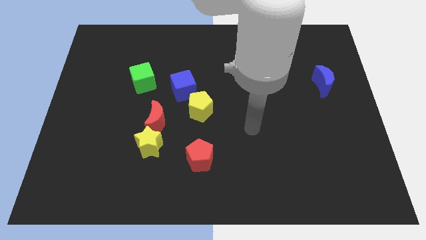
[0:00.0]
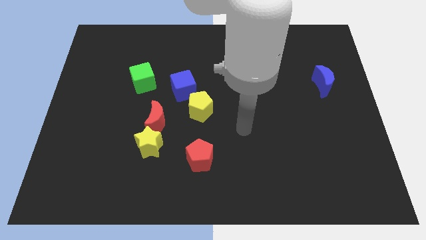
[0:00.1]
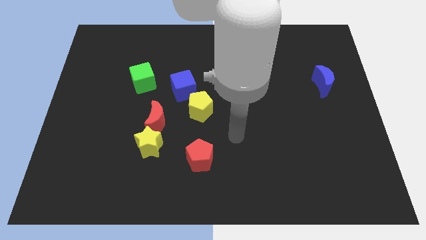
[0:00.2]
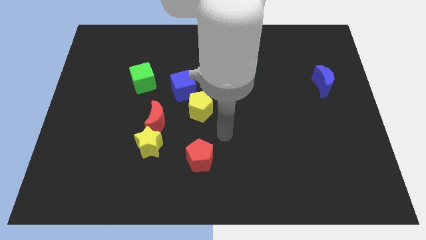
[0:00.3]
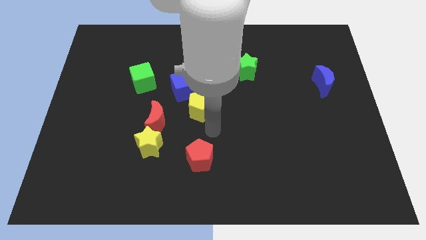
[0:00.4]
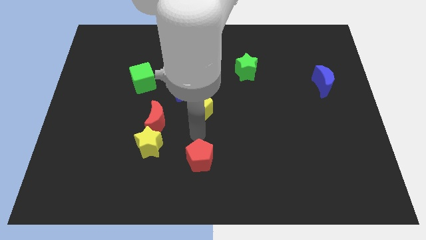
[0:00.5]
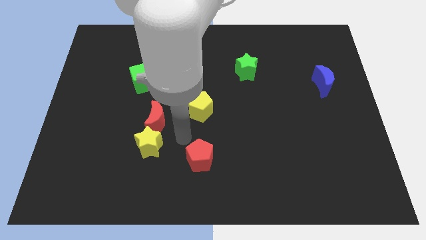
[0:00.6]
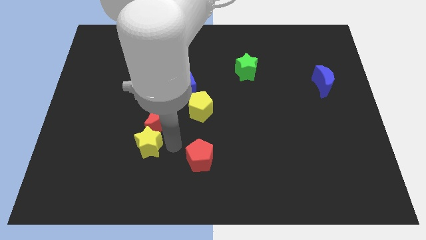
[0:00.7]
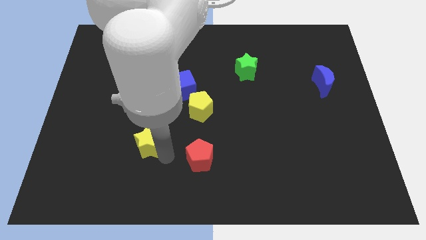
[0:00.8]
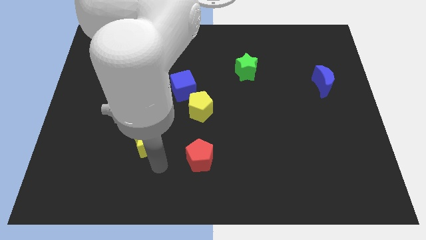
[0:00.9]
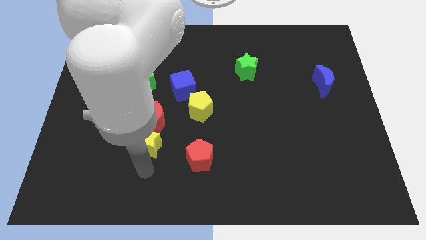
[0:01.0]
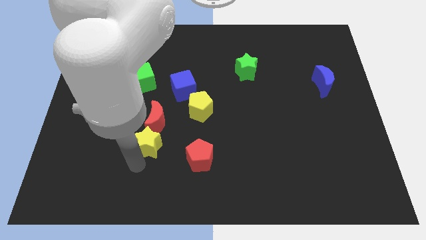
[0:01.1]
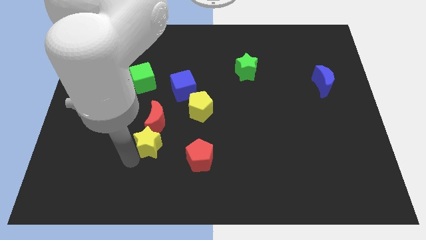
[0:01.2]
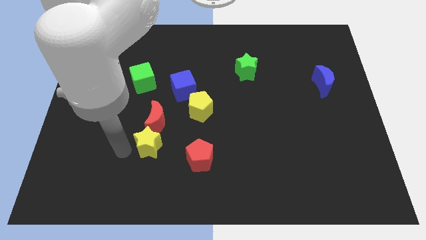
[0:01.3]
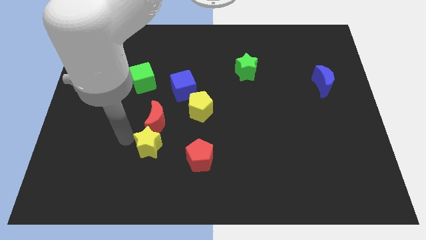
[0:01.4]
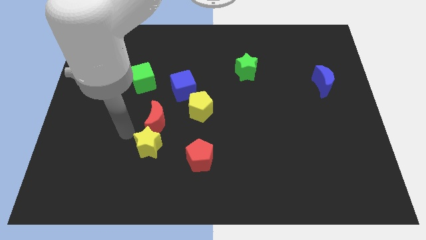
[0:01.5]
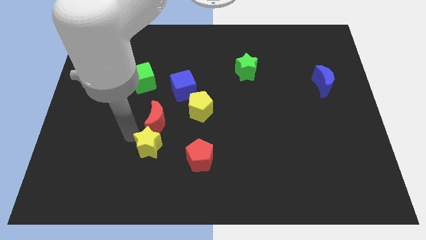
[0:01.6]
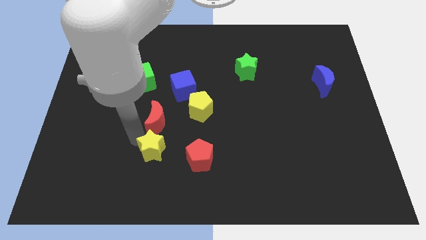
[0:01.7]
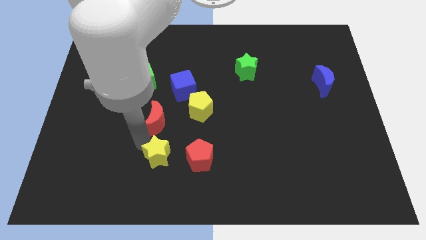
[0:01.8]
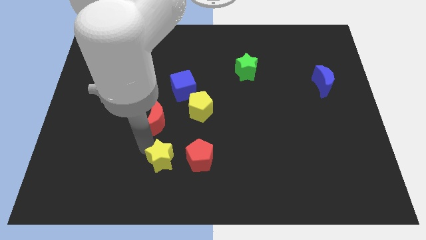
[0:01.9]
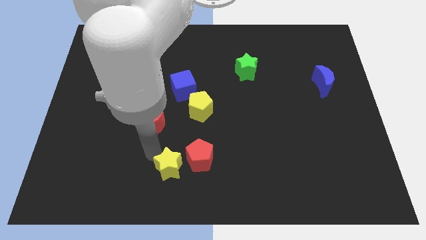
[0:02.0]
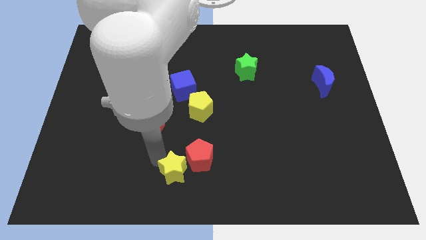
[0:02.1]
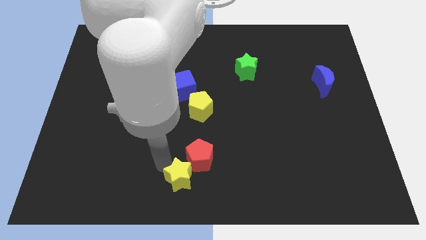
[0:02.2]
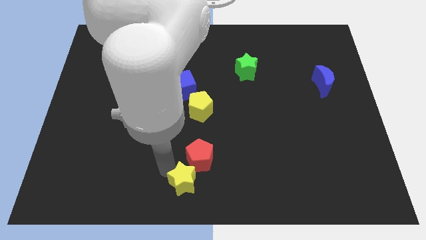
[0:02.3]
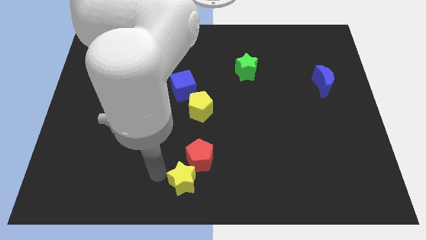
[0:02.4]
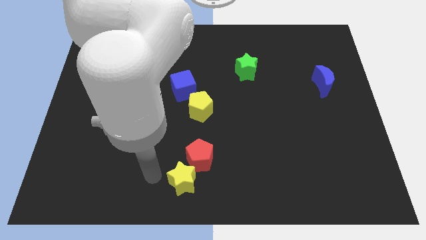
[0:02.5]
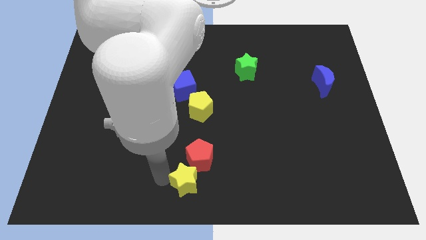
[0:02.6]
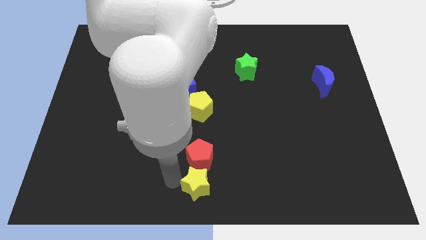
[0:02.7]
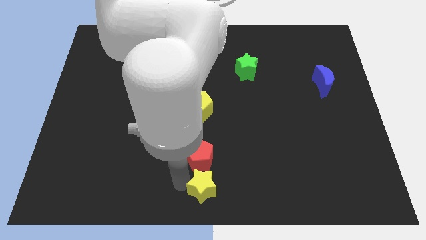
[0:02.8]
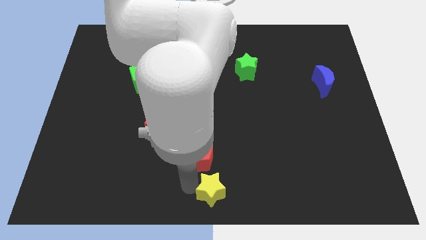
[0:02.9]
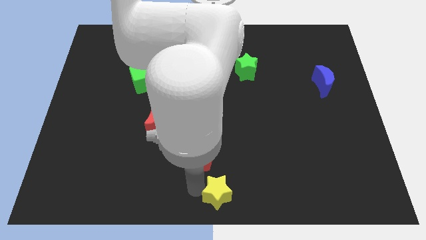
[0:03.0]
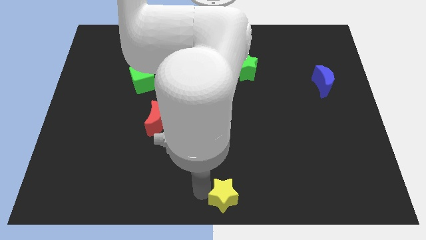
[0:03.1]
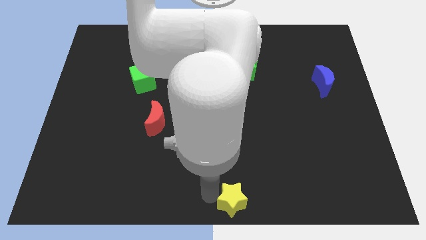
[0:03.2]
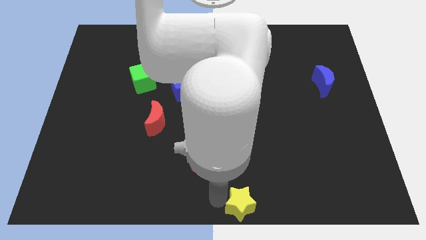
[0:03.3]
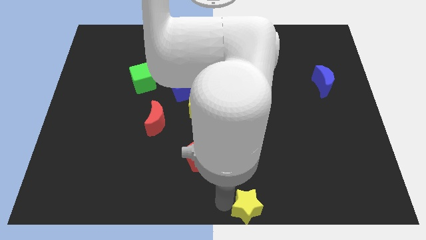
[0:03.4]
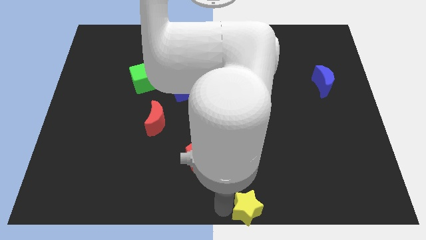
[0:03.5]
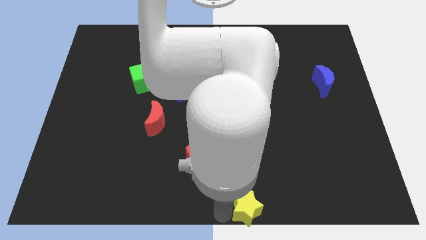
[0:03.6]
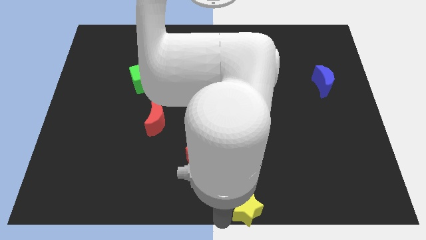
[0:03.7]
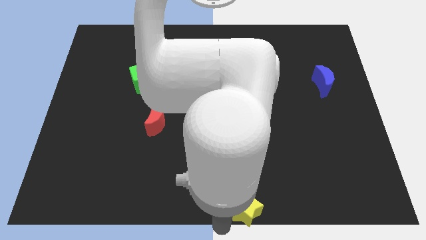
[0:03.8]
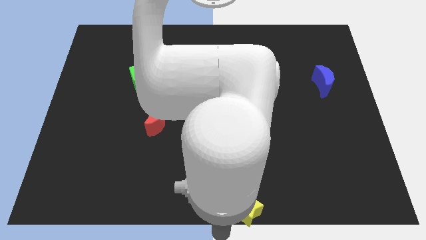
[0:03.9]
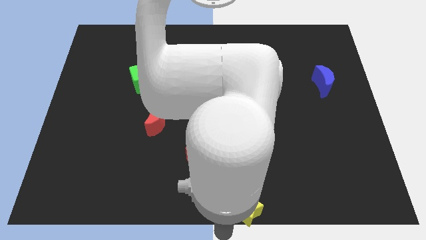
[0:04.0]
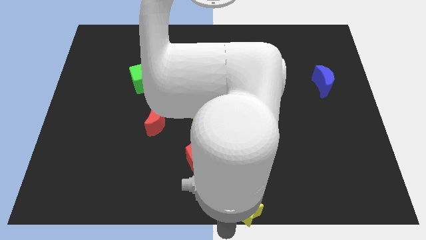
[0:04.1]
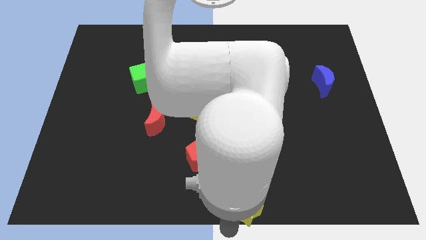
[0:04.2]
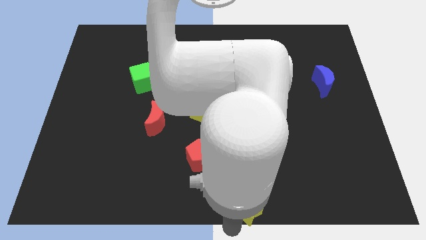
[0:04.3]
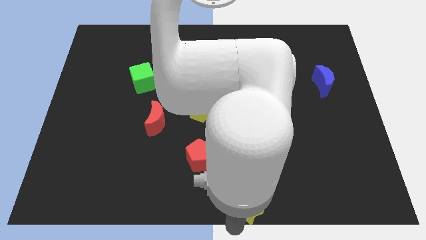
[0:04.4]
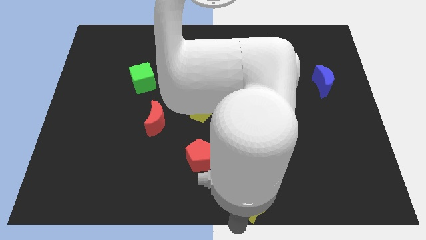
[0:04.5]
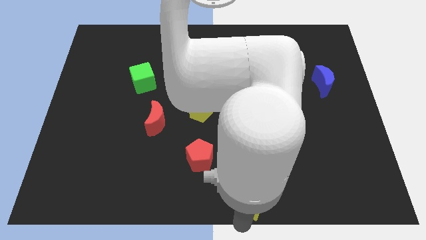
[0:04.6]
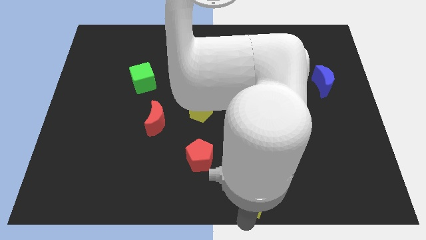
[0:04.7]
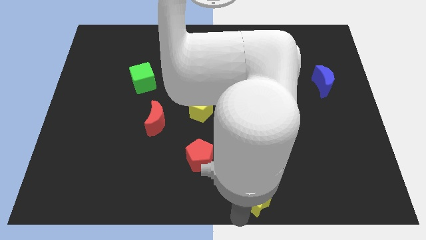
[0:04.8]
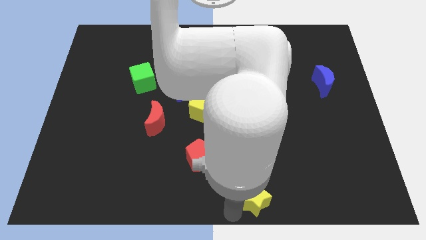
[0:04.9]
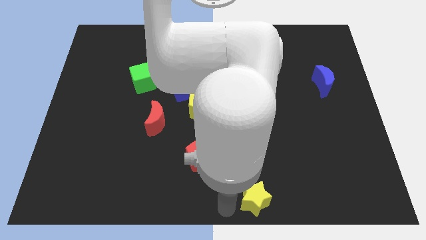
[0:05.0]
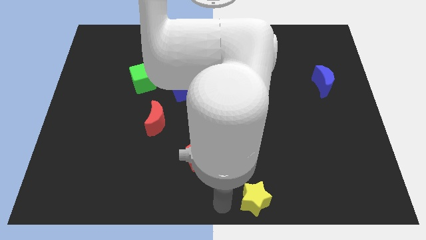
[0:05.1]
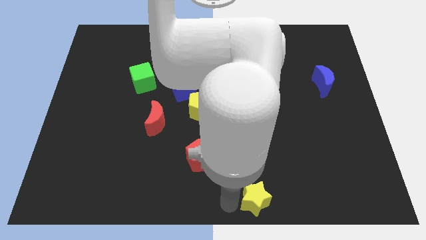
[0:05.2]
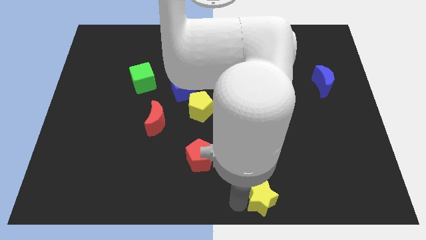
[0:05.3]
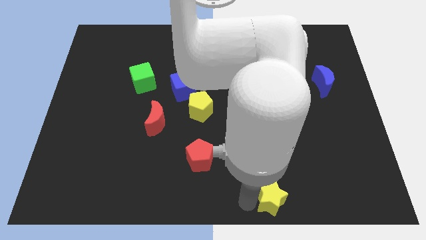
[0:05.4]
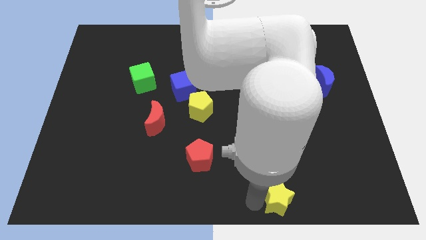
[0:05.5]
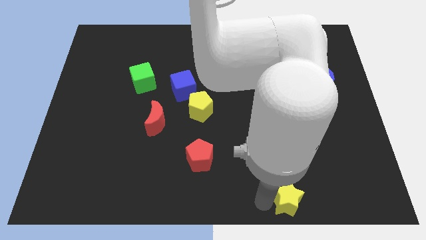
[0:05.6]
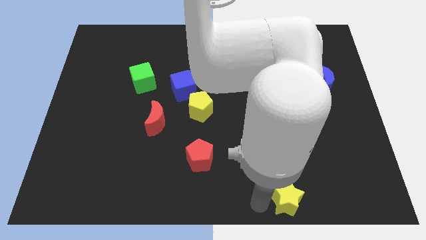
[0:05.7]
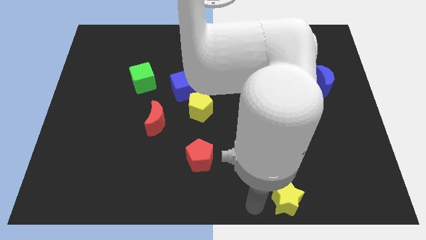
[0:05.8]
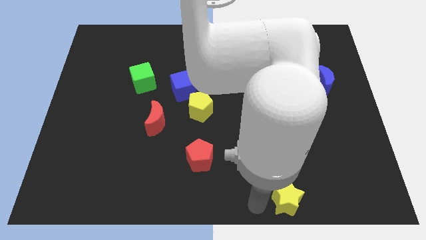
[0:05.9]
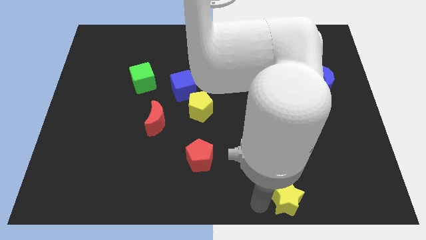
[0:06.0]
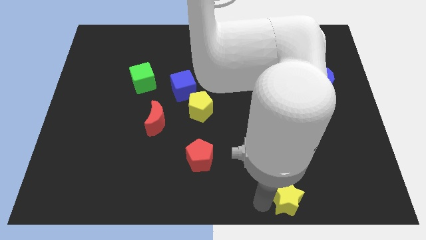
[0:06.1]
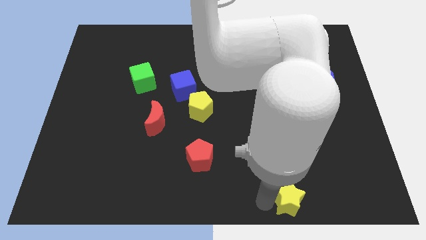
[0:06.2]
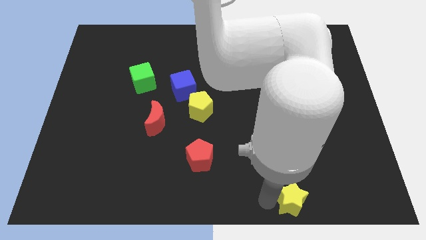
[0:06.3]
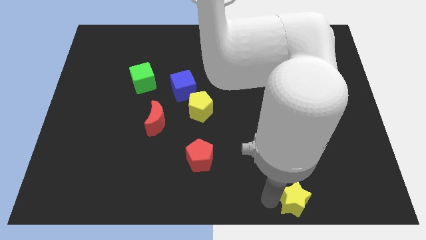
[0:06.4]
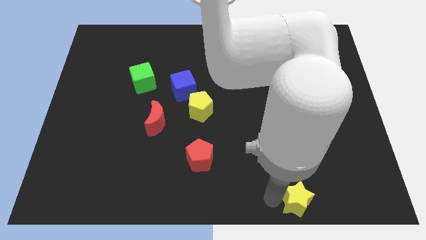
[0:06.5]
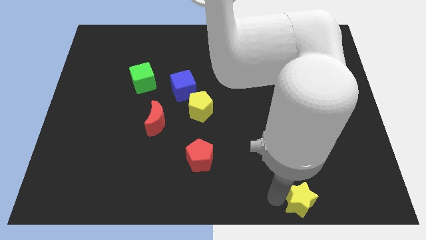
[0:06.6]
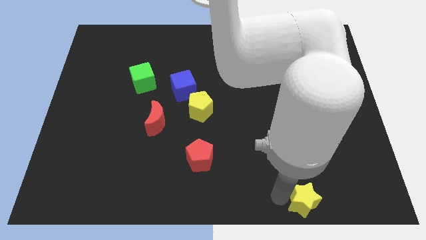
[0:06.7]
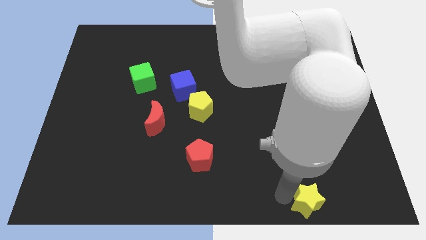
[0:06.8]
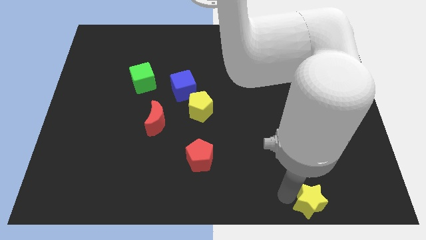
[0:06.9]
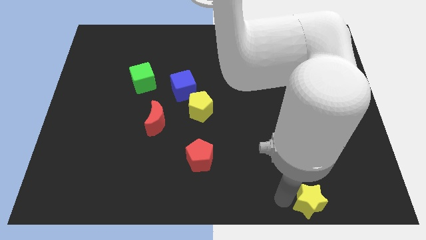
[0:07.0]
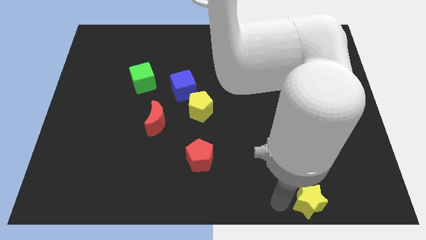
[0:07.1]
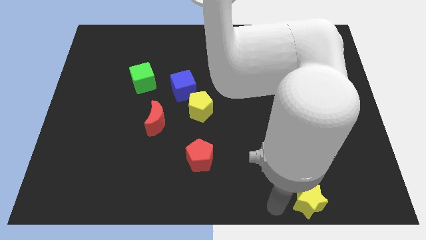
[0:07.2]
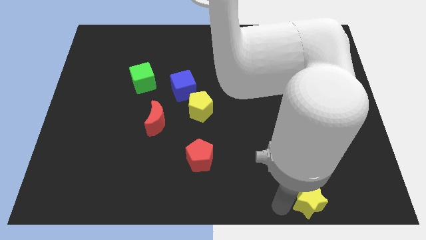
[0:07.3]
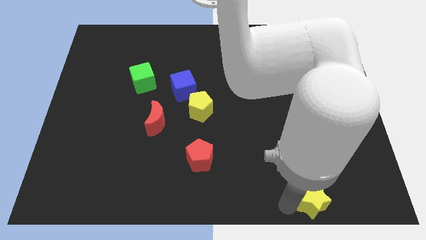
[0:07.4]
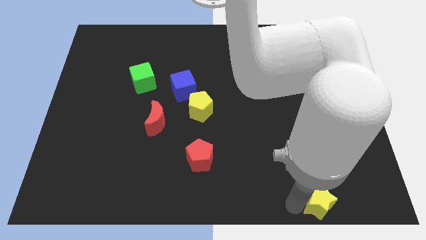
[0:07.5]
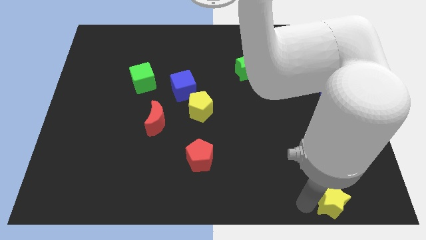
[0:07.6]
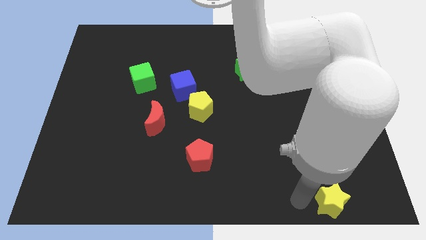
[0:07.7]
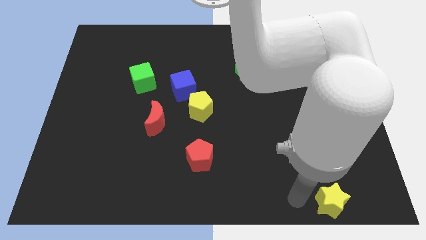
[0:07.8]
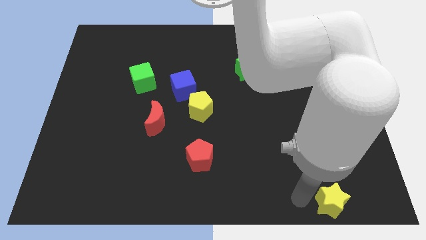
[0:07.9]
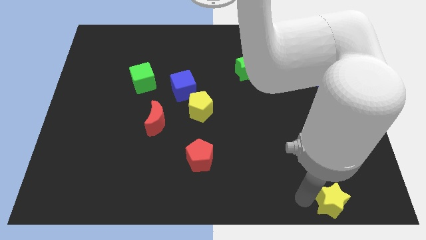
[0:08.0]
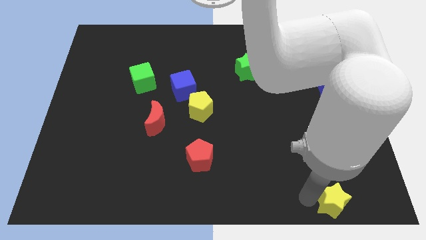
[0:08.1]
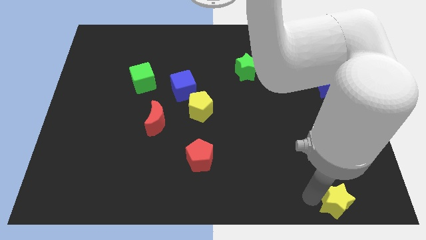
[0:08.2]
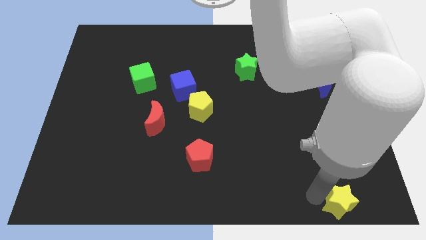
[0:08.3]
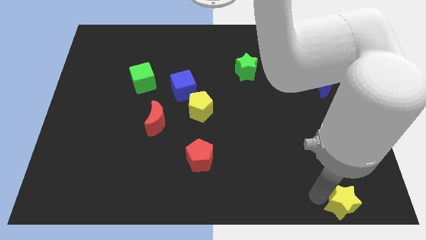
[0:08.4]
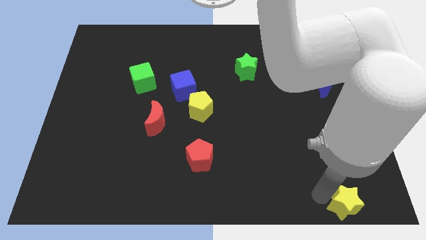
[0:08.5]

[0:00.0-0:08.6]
push the yellow star to the bottom right corner
